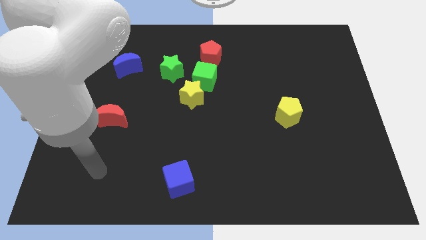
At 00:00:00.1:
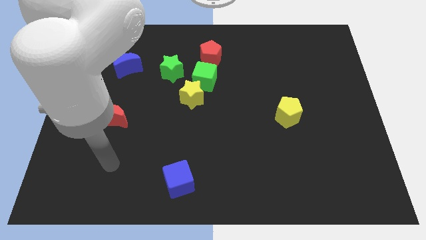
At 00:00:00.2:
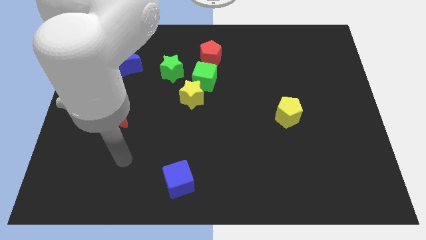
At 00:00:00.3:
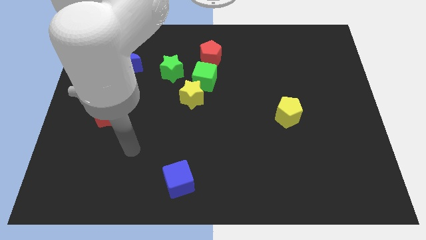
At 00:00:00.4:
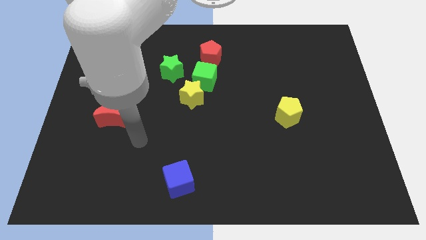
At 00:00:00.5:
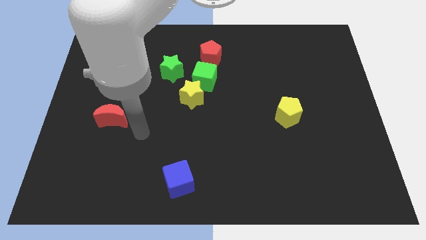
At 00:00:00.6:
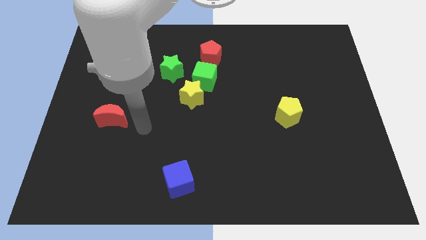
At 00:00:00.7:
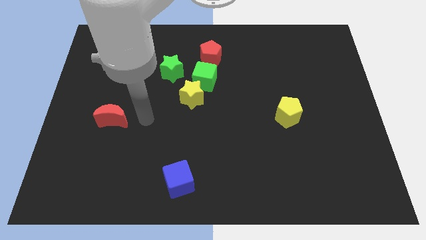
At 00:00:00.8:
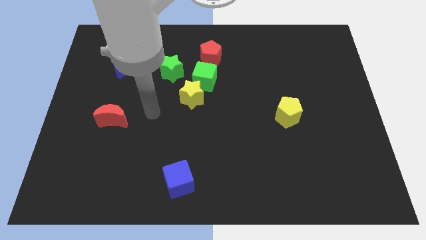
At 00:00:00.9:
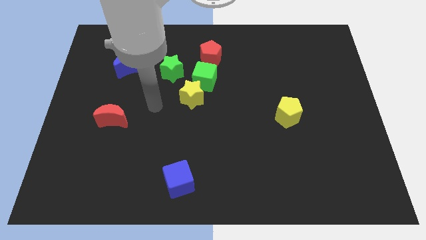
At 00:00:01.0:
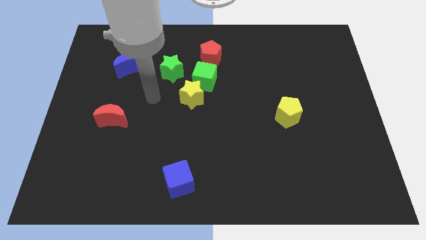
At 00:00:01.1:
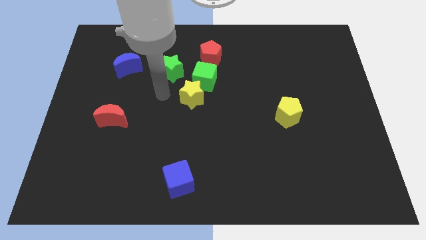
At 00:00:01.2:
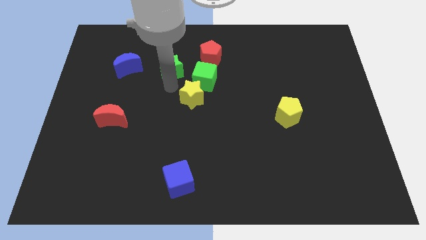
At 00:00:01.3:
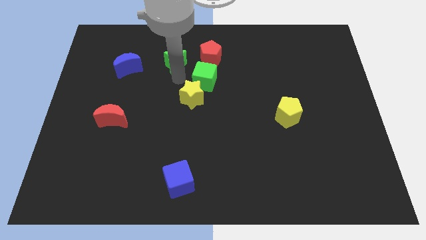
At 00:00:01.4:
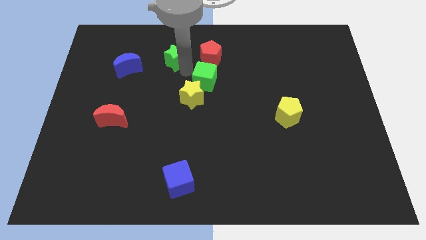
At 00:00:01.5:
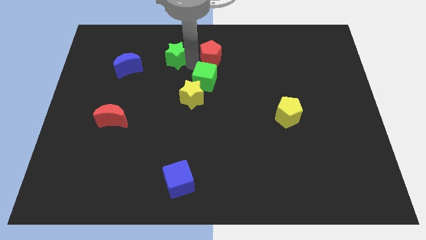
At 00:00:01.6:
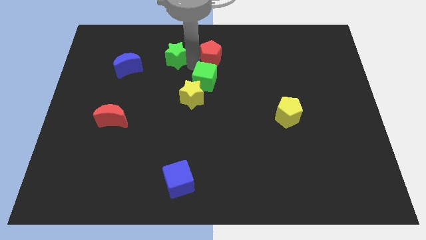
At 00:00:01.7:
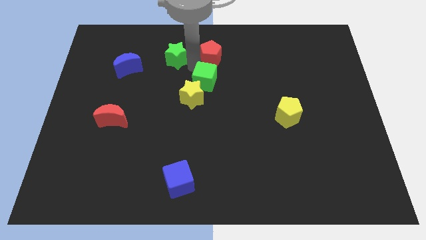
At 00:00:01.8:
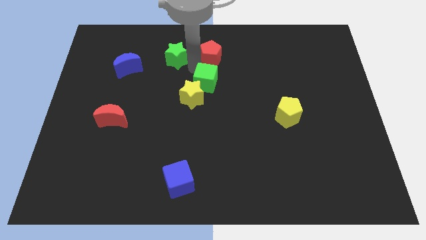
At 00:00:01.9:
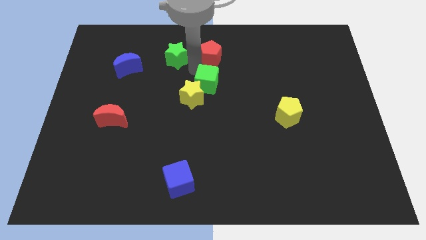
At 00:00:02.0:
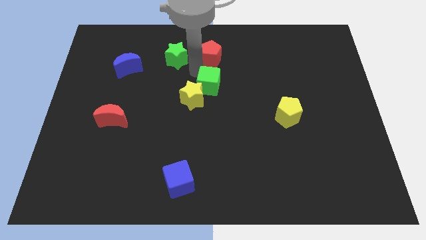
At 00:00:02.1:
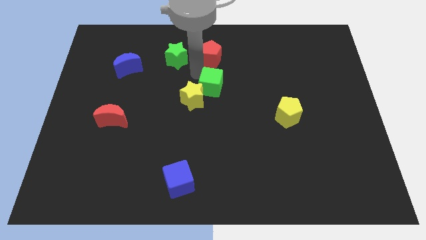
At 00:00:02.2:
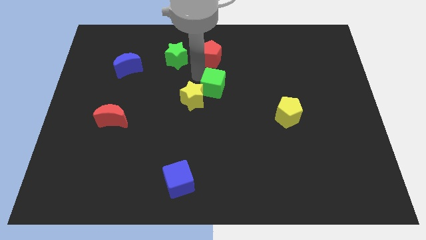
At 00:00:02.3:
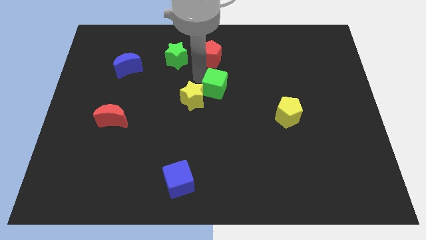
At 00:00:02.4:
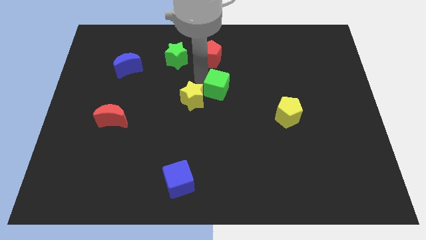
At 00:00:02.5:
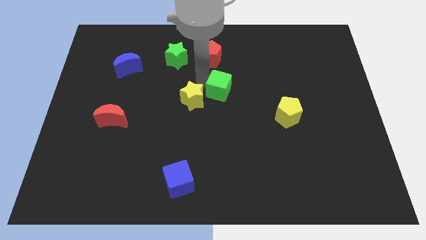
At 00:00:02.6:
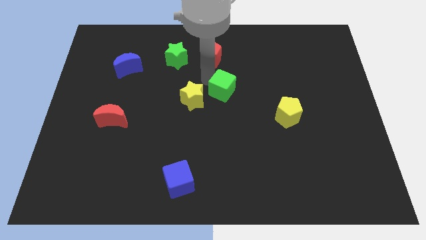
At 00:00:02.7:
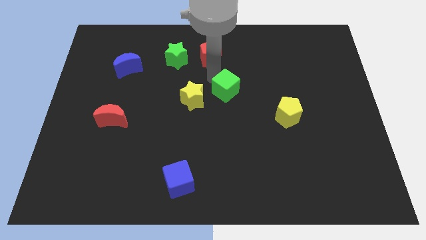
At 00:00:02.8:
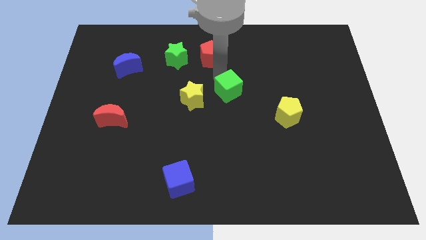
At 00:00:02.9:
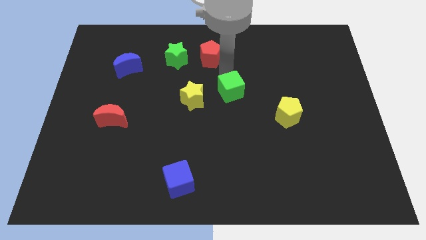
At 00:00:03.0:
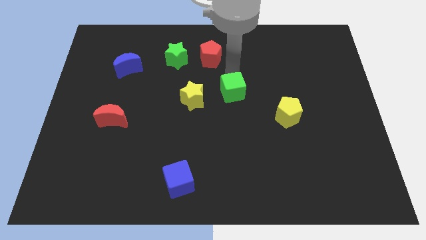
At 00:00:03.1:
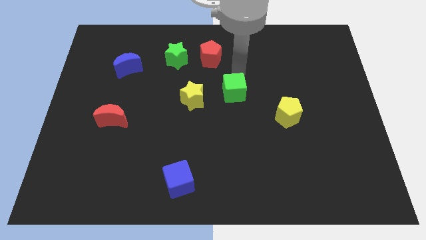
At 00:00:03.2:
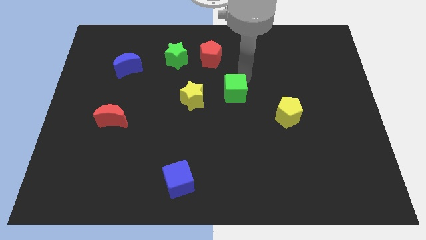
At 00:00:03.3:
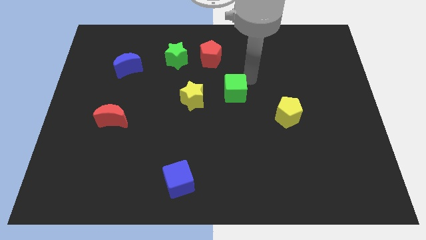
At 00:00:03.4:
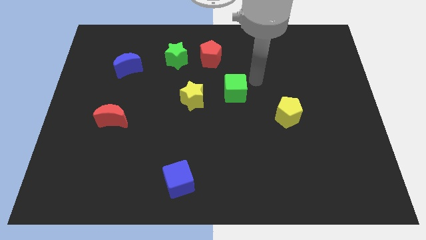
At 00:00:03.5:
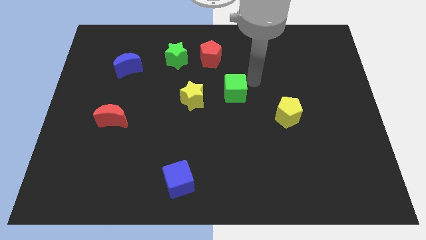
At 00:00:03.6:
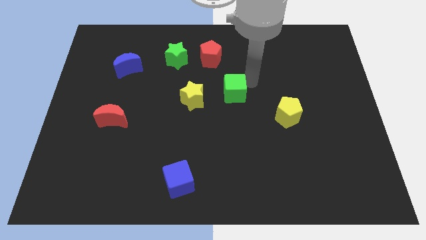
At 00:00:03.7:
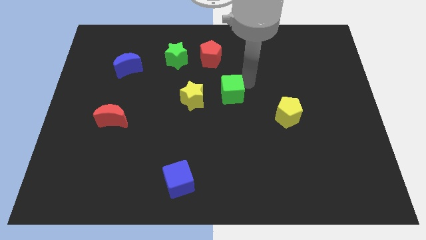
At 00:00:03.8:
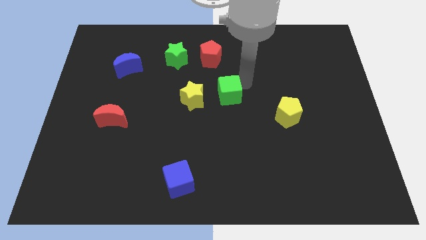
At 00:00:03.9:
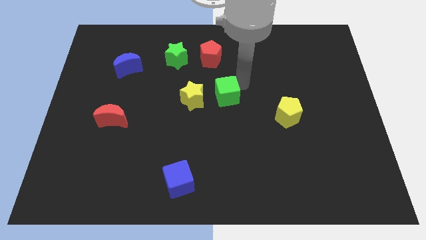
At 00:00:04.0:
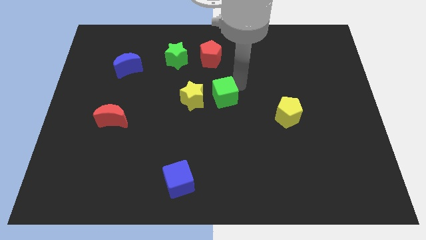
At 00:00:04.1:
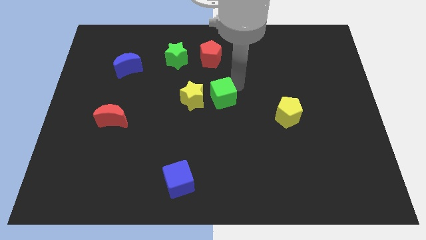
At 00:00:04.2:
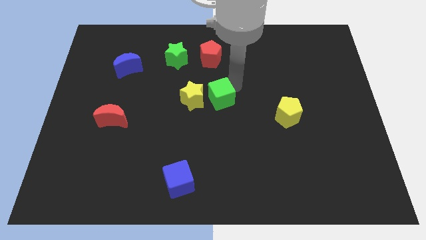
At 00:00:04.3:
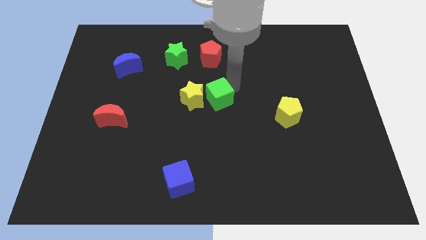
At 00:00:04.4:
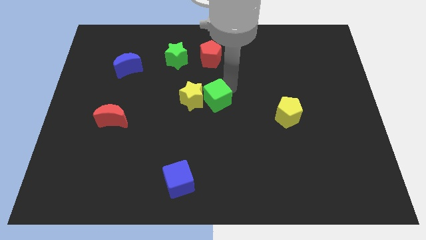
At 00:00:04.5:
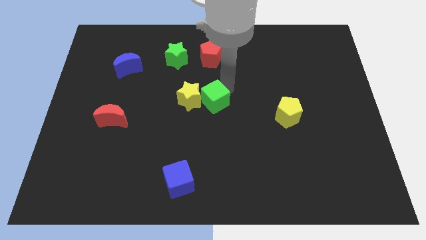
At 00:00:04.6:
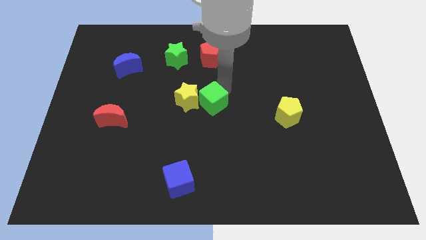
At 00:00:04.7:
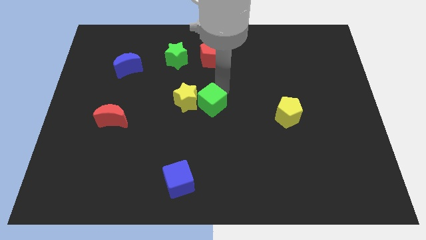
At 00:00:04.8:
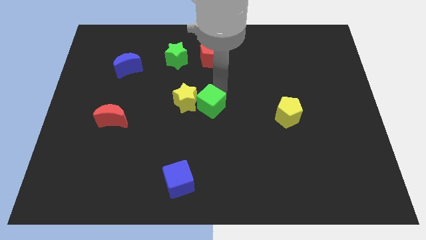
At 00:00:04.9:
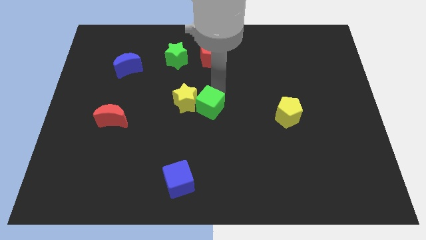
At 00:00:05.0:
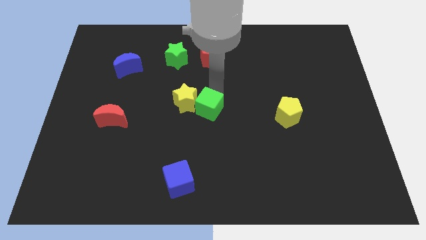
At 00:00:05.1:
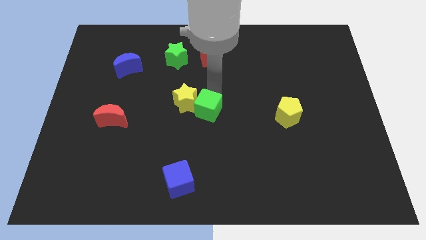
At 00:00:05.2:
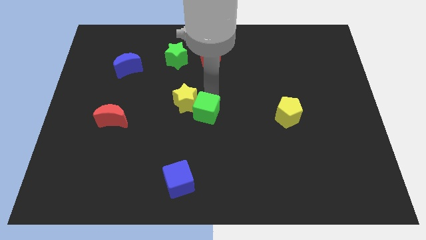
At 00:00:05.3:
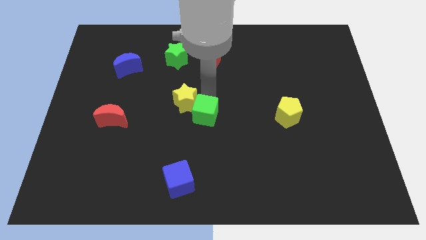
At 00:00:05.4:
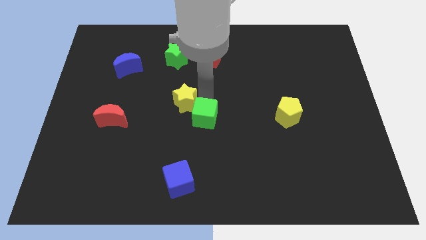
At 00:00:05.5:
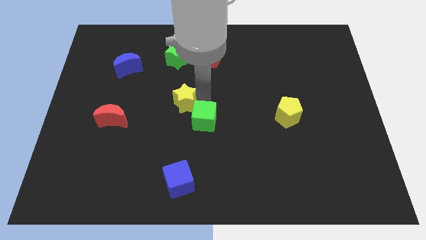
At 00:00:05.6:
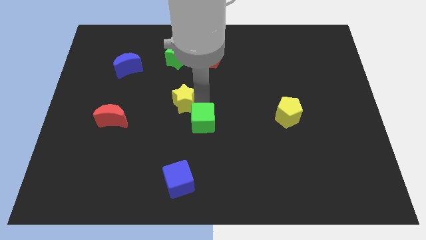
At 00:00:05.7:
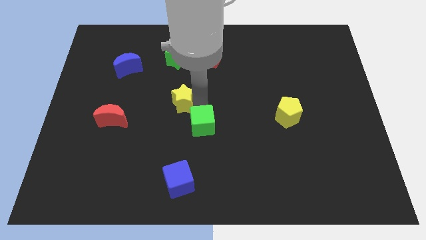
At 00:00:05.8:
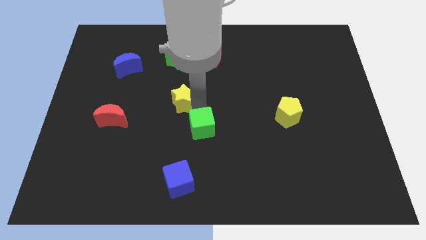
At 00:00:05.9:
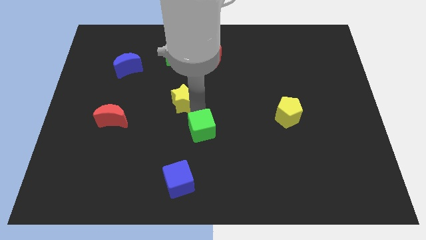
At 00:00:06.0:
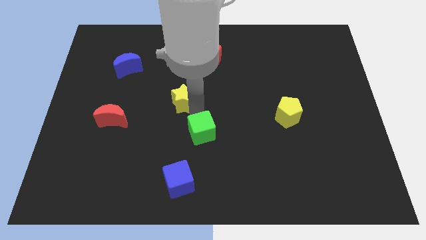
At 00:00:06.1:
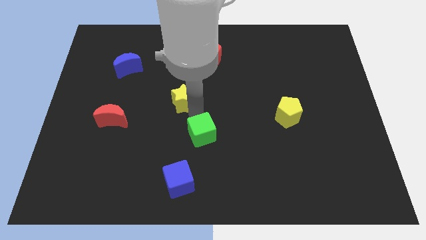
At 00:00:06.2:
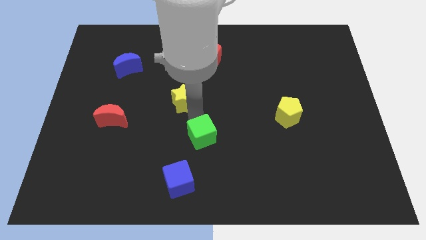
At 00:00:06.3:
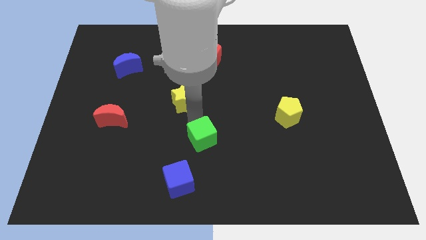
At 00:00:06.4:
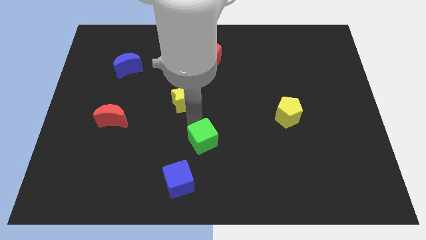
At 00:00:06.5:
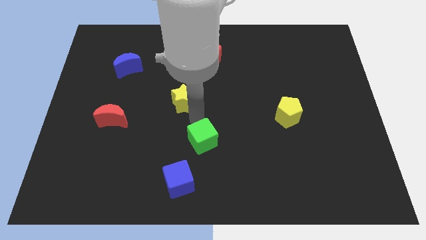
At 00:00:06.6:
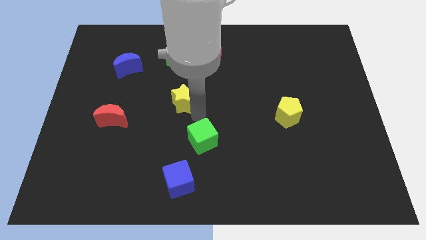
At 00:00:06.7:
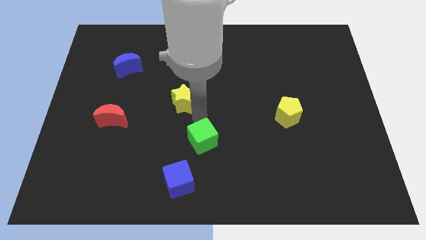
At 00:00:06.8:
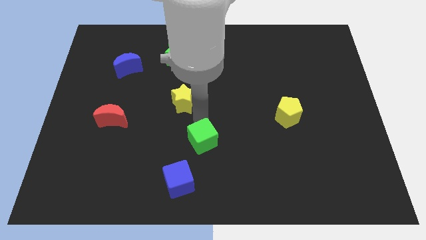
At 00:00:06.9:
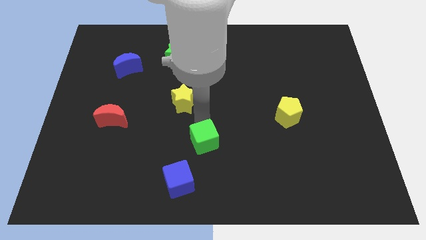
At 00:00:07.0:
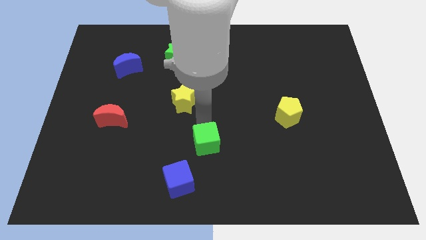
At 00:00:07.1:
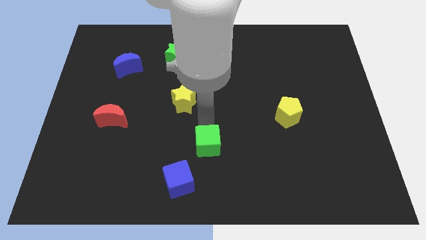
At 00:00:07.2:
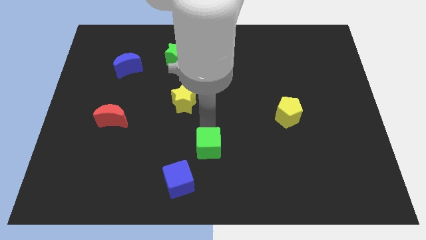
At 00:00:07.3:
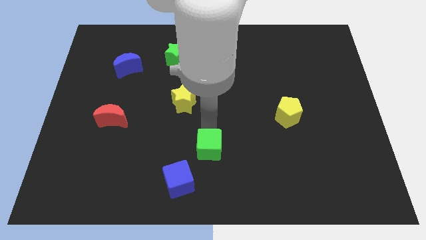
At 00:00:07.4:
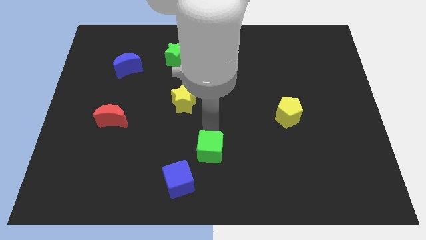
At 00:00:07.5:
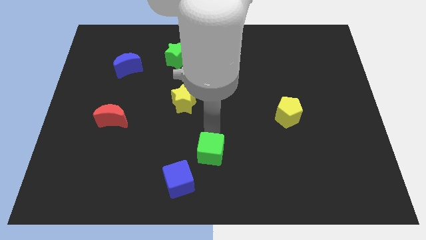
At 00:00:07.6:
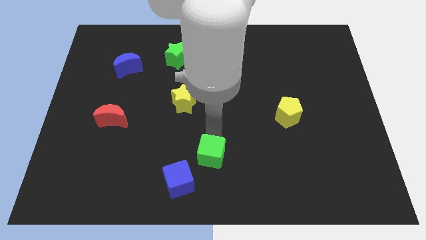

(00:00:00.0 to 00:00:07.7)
put the green cube to the bottom
